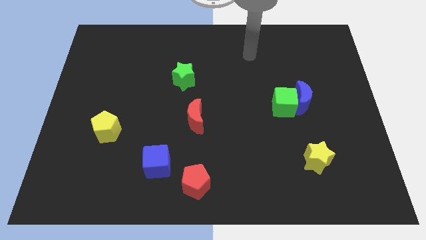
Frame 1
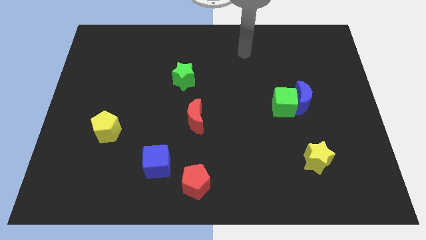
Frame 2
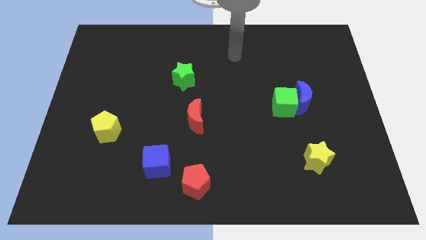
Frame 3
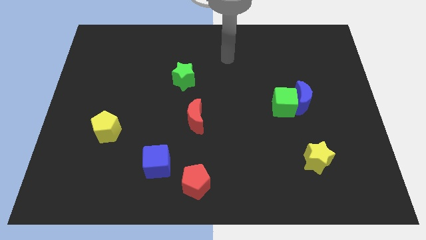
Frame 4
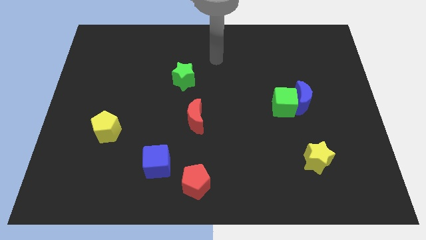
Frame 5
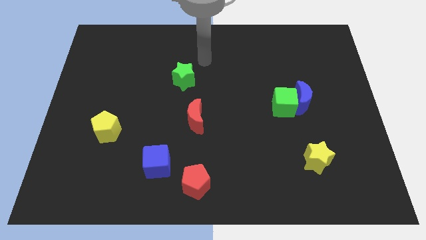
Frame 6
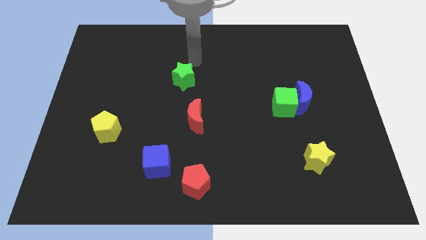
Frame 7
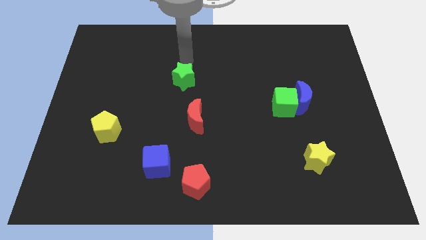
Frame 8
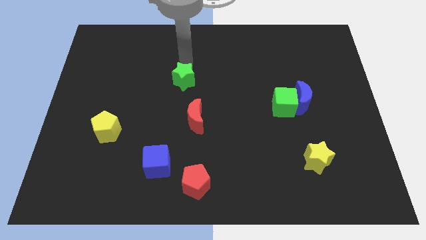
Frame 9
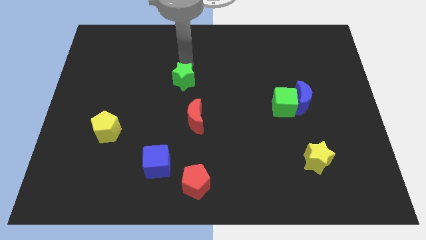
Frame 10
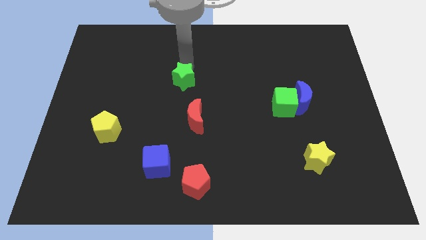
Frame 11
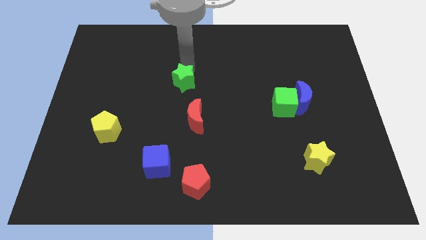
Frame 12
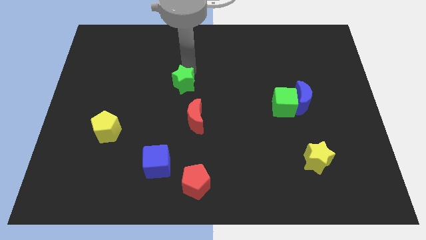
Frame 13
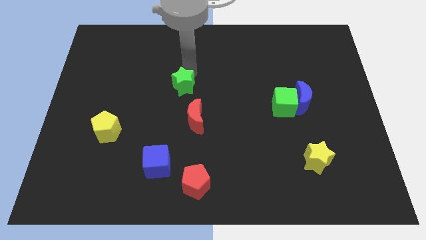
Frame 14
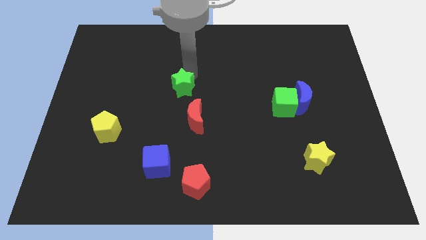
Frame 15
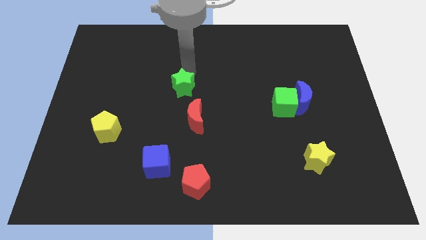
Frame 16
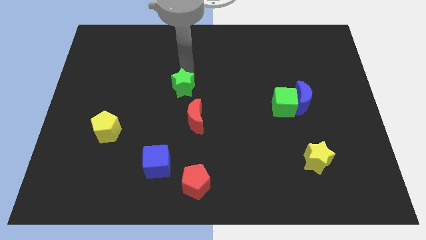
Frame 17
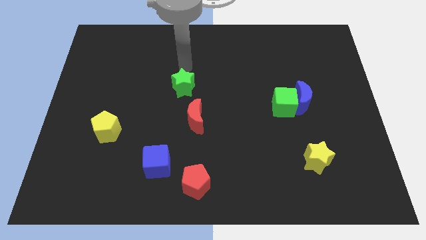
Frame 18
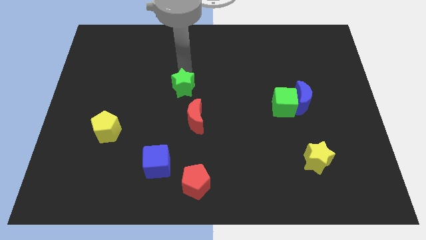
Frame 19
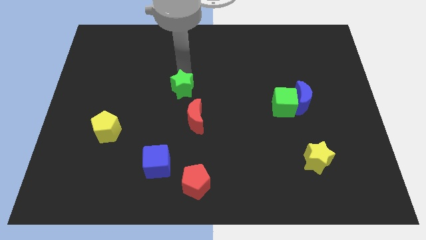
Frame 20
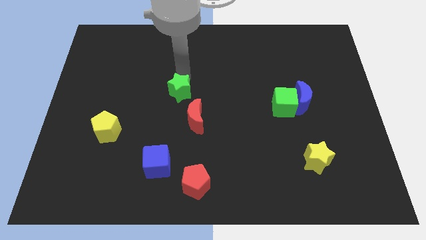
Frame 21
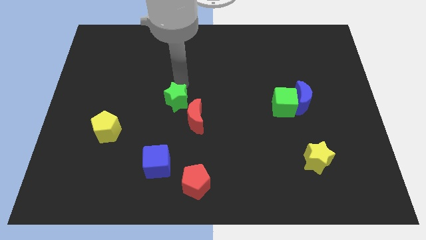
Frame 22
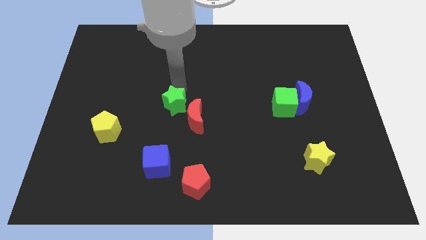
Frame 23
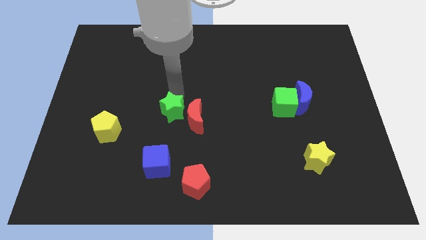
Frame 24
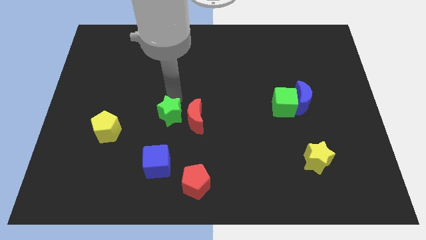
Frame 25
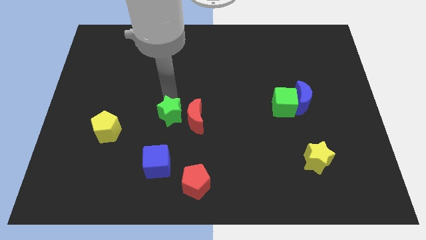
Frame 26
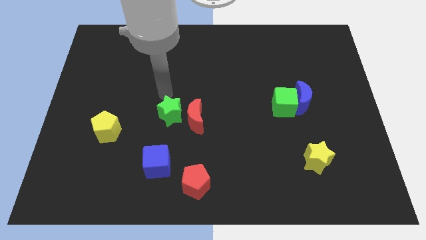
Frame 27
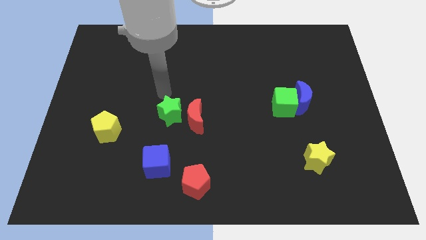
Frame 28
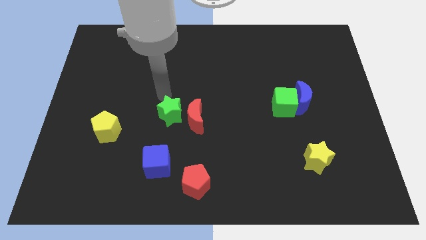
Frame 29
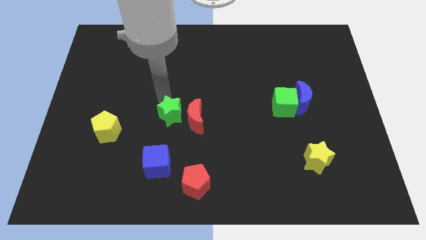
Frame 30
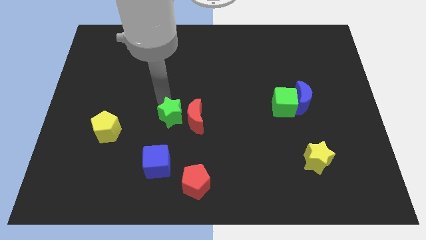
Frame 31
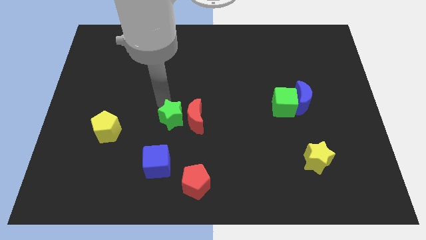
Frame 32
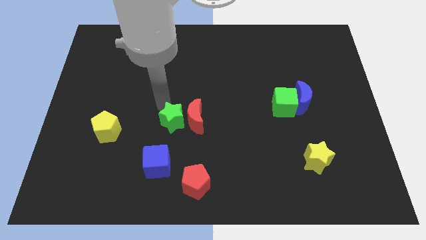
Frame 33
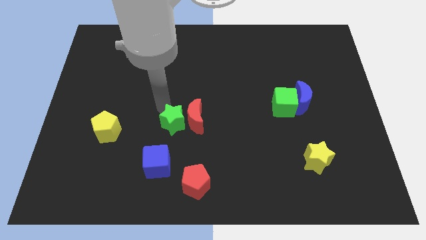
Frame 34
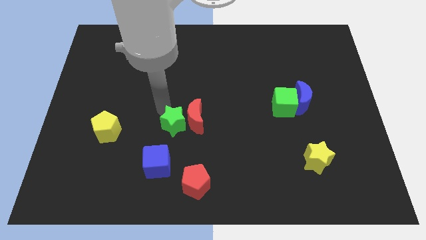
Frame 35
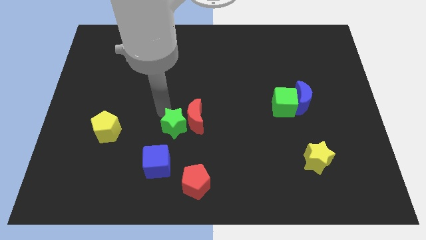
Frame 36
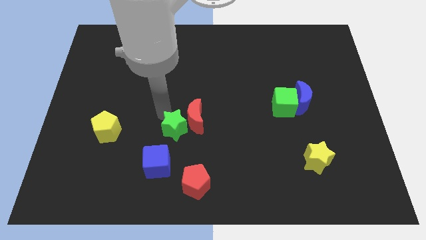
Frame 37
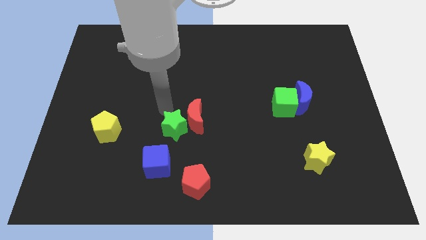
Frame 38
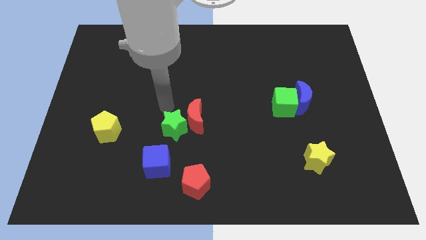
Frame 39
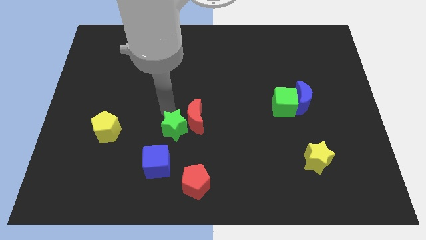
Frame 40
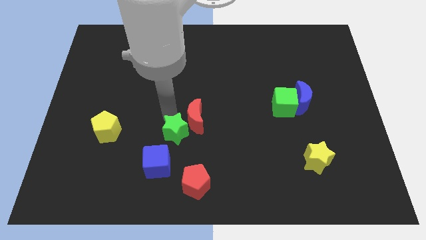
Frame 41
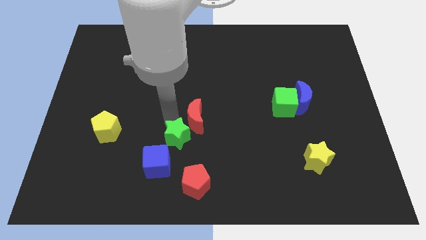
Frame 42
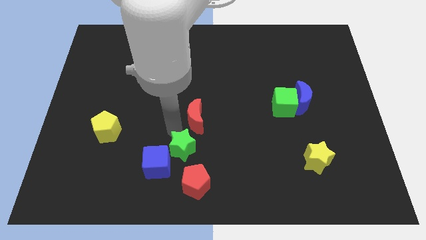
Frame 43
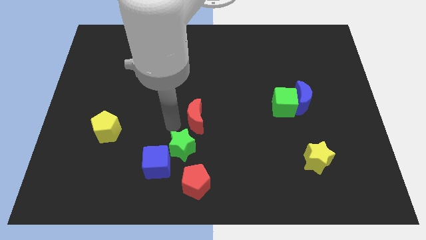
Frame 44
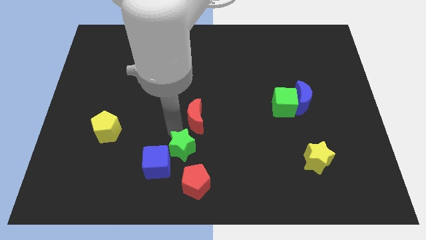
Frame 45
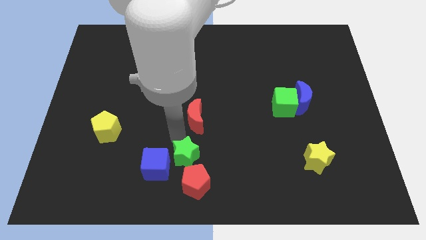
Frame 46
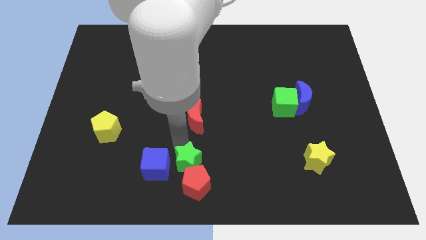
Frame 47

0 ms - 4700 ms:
move the green star towards the red pentagon

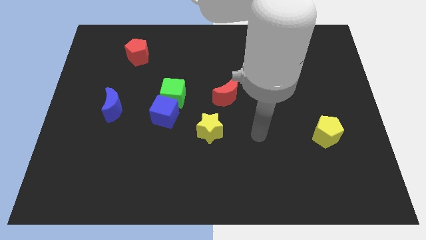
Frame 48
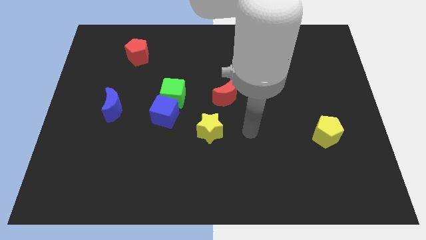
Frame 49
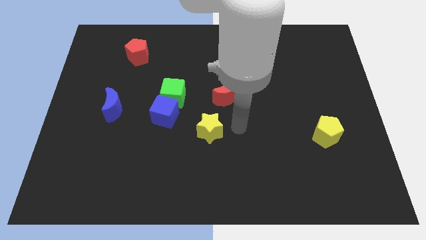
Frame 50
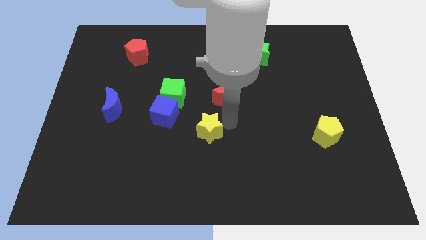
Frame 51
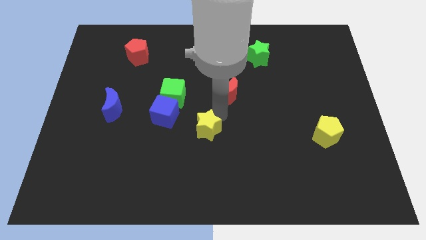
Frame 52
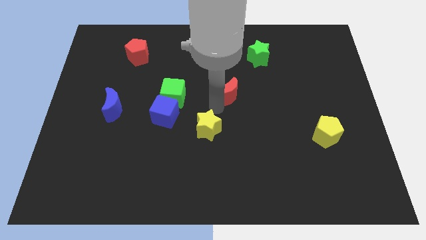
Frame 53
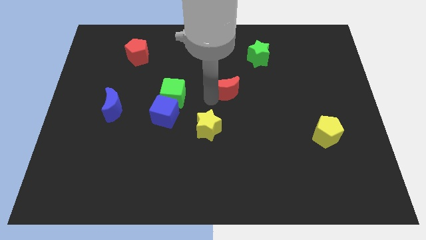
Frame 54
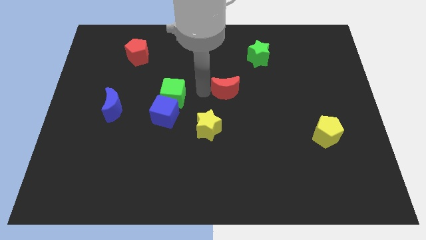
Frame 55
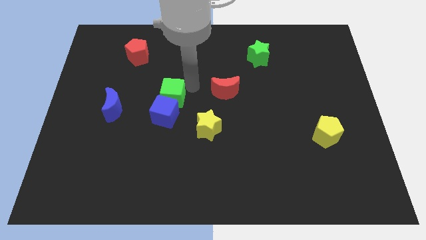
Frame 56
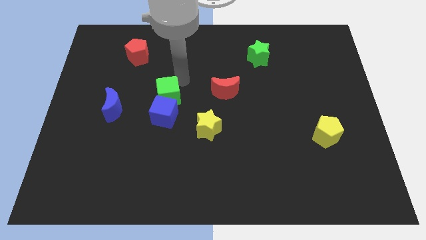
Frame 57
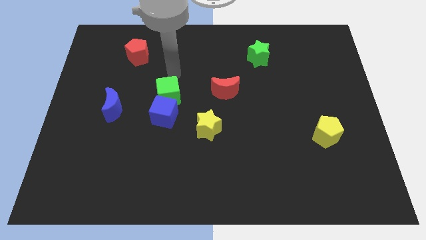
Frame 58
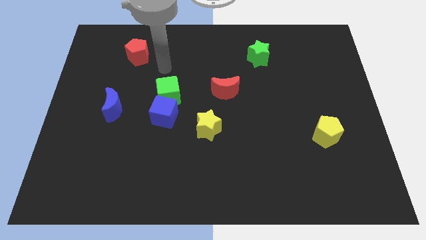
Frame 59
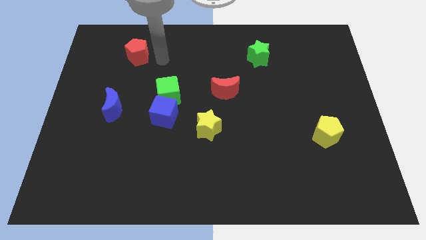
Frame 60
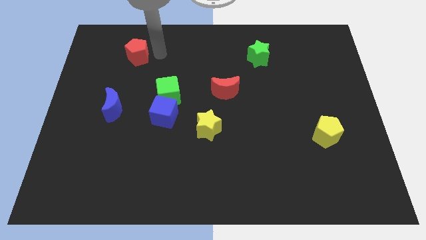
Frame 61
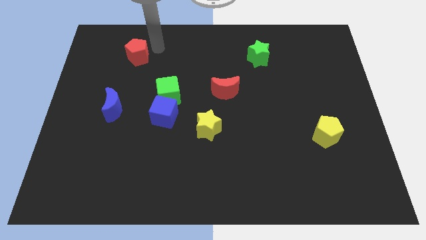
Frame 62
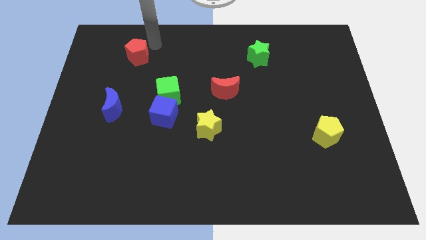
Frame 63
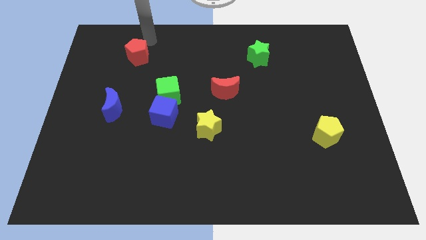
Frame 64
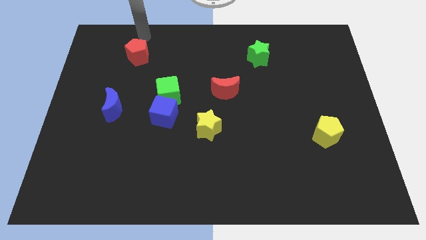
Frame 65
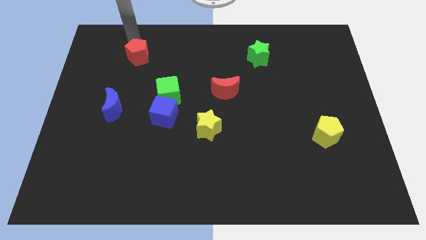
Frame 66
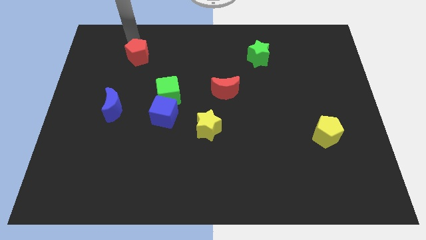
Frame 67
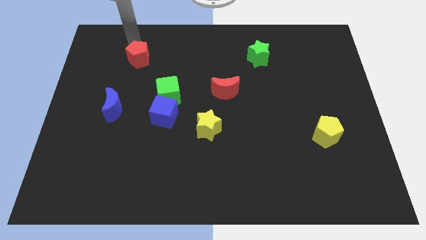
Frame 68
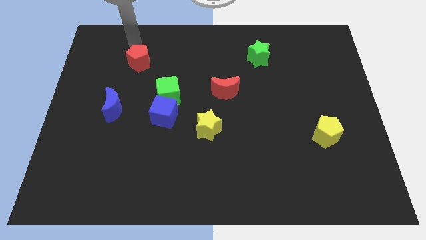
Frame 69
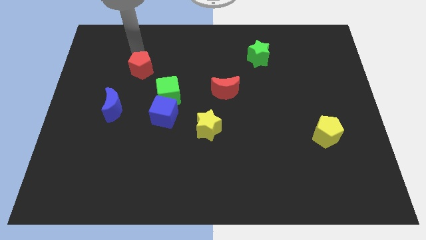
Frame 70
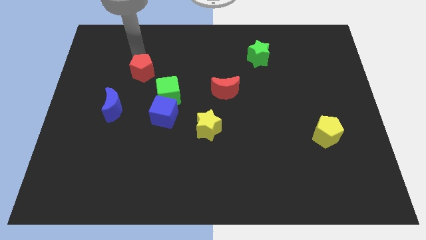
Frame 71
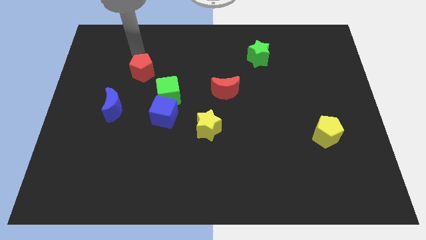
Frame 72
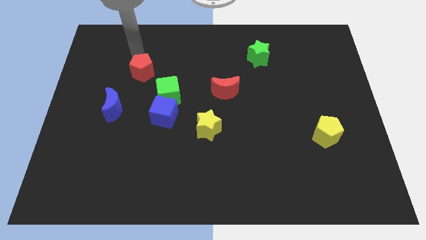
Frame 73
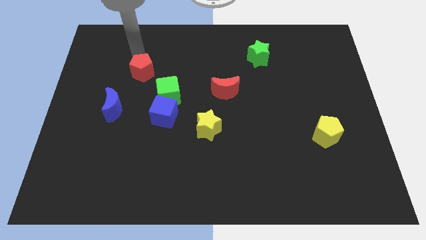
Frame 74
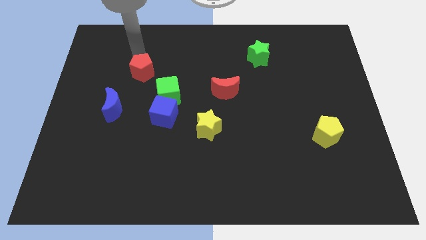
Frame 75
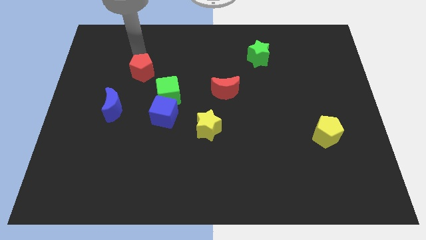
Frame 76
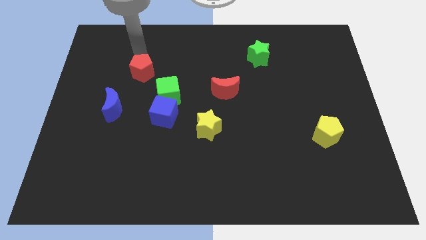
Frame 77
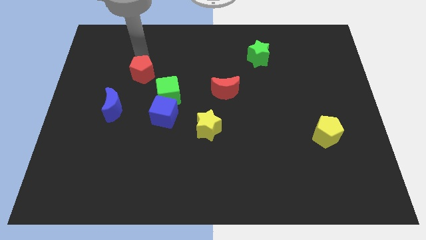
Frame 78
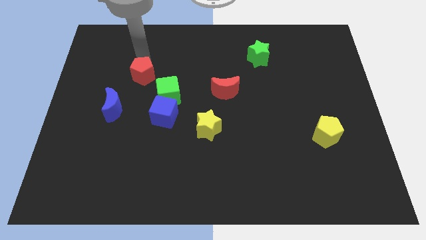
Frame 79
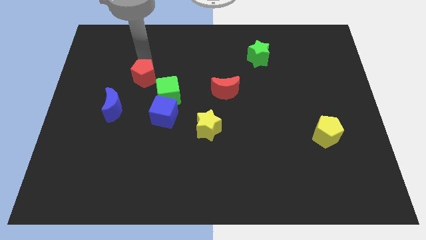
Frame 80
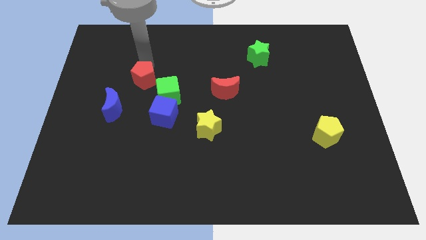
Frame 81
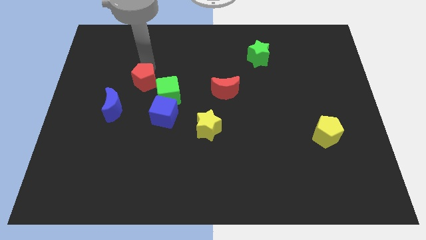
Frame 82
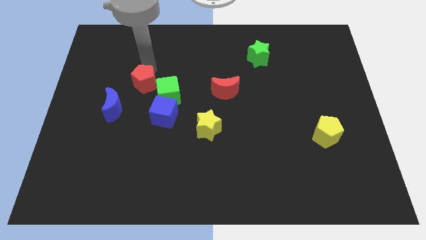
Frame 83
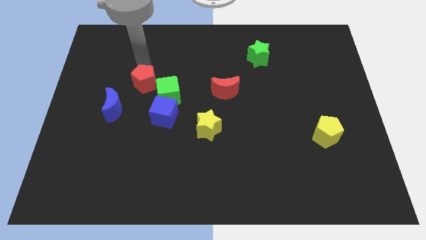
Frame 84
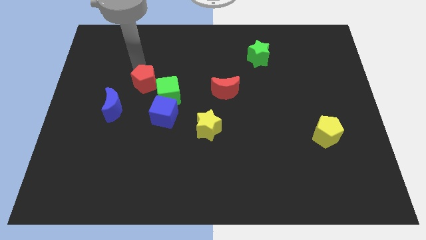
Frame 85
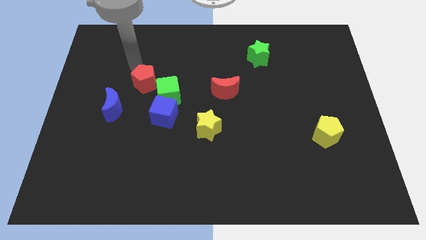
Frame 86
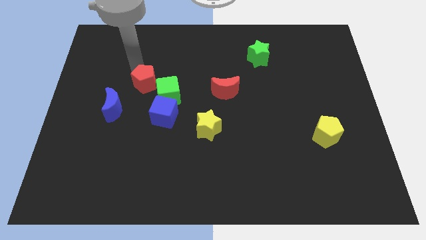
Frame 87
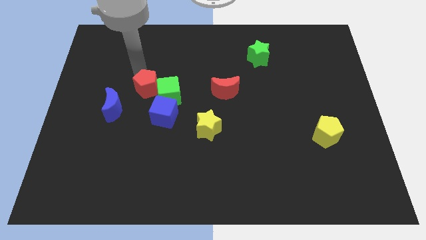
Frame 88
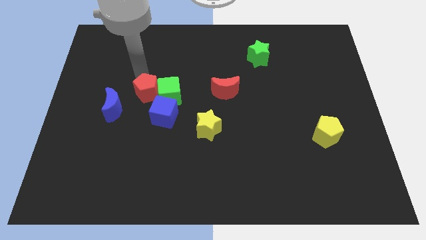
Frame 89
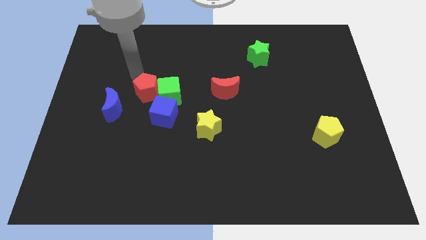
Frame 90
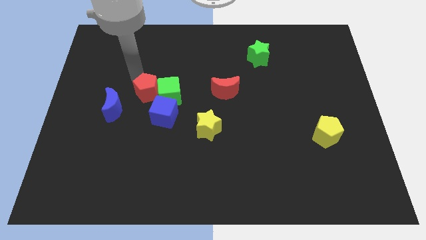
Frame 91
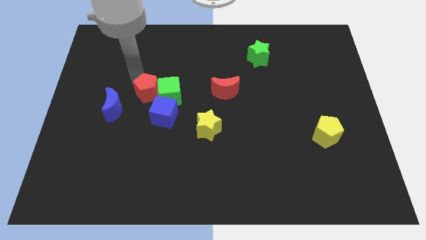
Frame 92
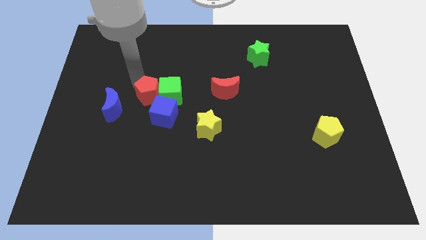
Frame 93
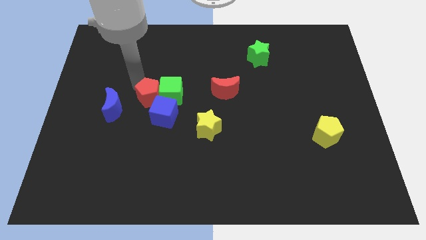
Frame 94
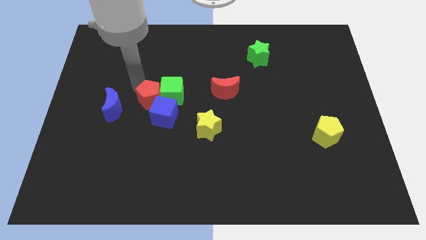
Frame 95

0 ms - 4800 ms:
put the red pentagon towards the blue cube
